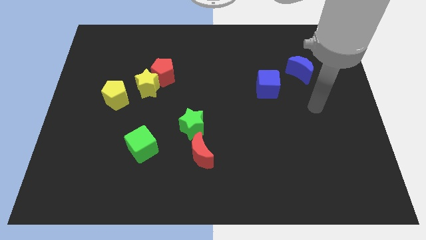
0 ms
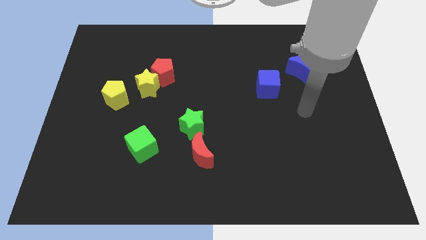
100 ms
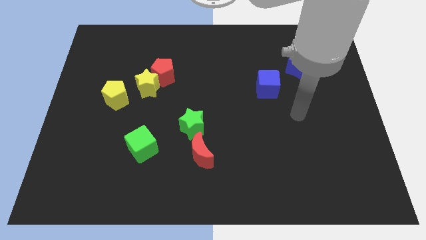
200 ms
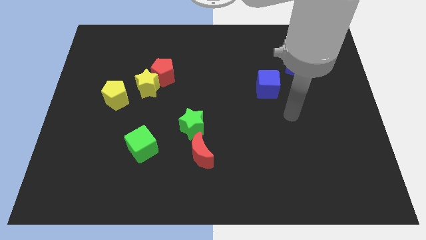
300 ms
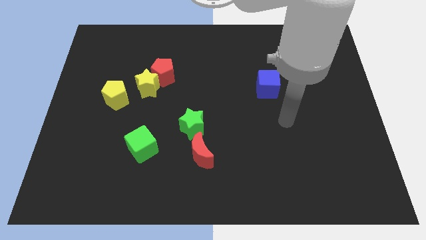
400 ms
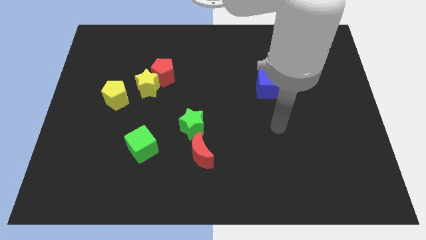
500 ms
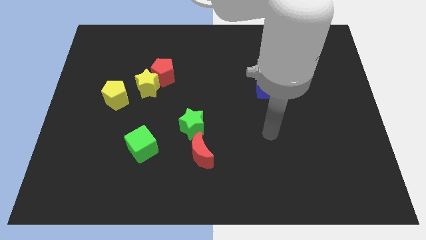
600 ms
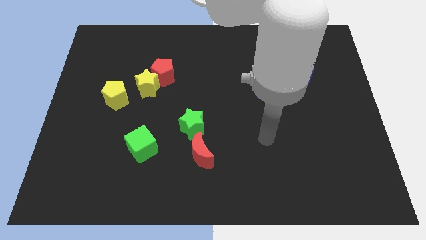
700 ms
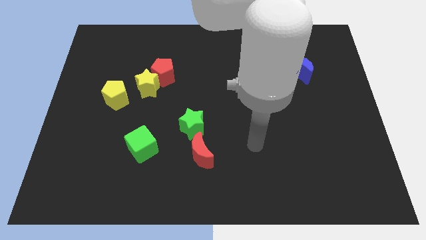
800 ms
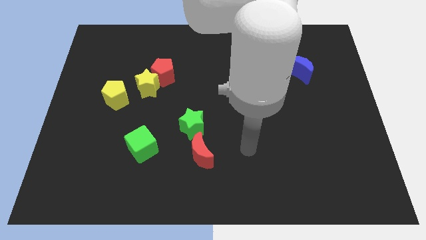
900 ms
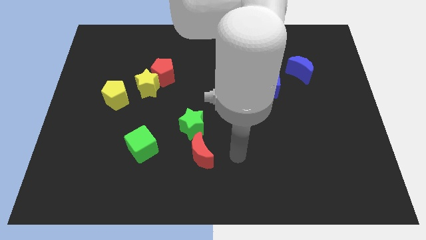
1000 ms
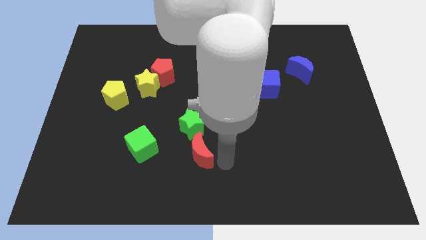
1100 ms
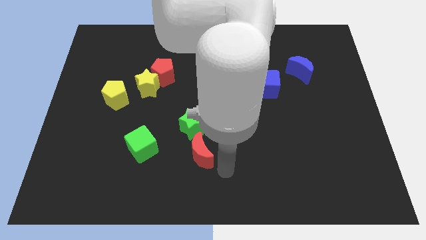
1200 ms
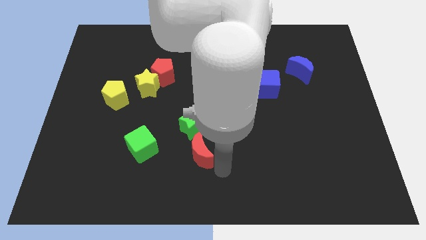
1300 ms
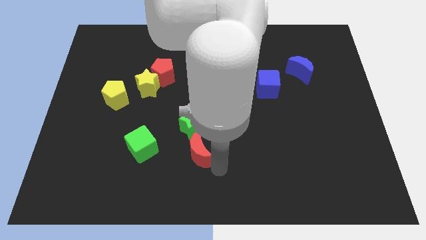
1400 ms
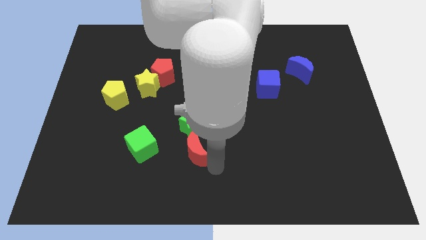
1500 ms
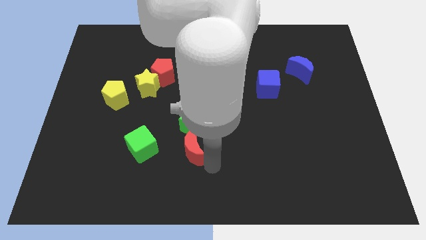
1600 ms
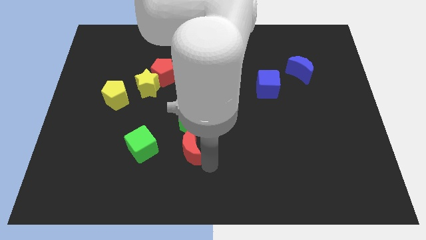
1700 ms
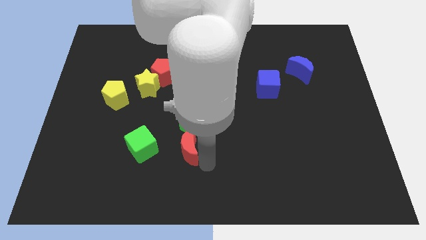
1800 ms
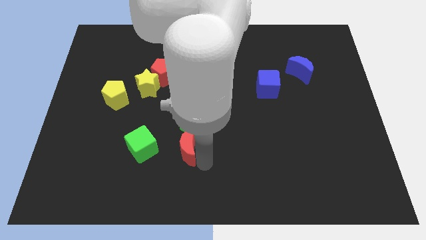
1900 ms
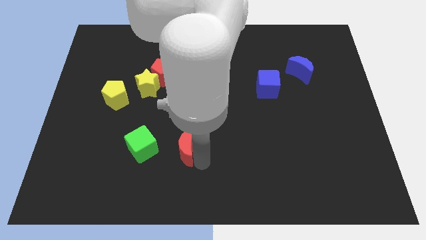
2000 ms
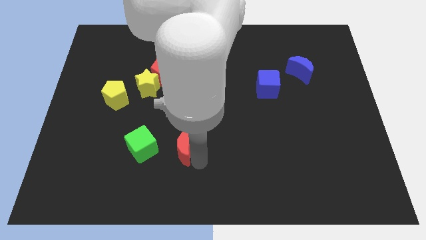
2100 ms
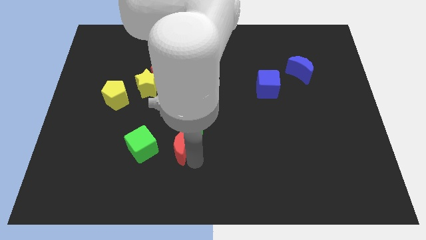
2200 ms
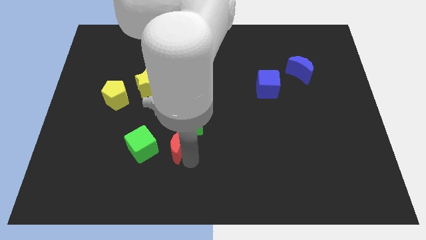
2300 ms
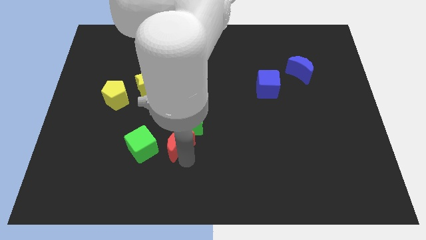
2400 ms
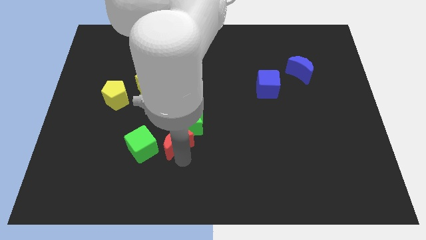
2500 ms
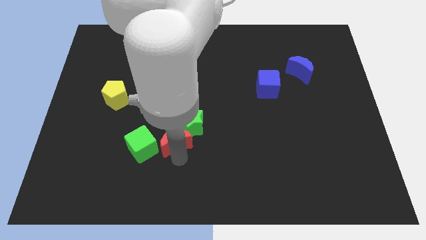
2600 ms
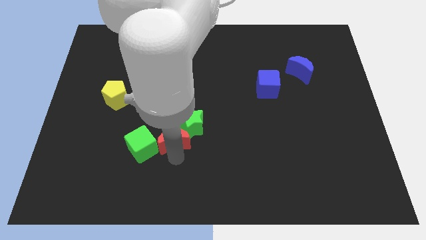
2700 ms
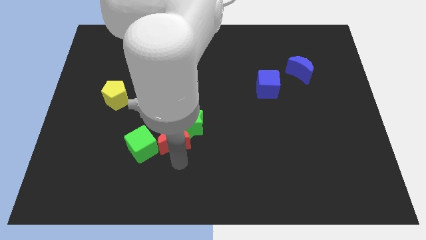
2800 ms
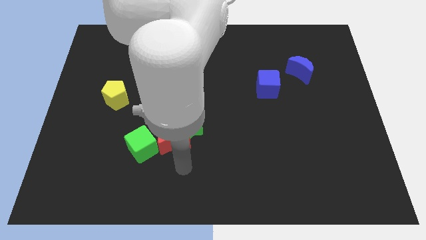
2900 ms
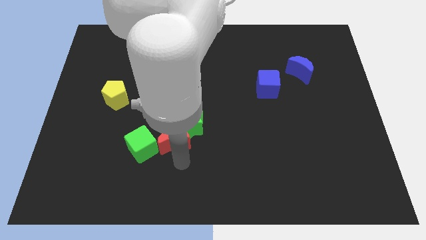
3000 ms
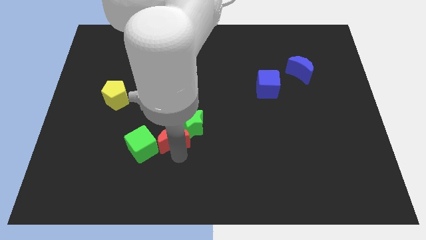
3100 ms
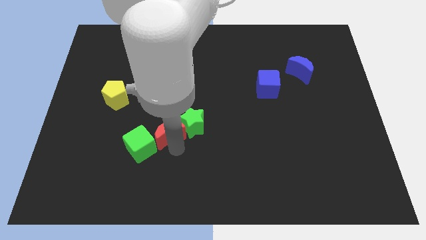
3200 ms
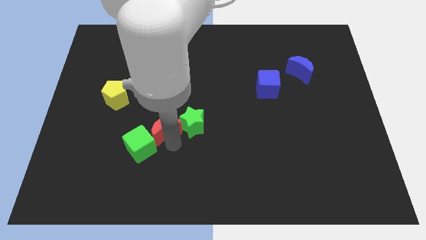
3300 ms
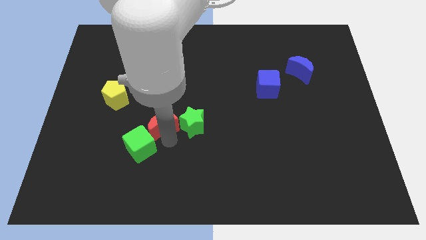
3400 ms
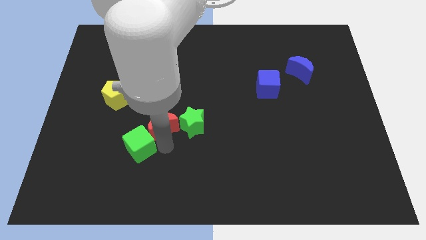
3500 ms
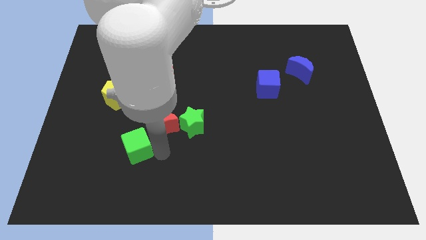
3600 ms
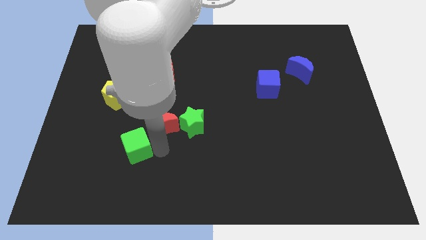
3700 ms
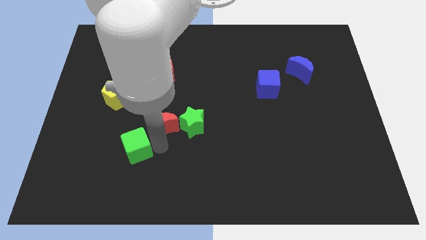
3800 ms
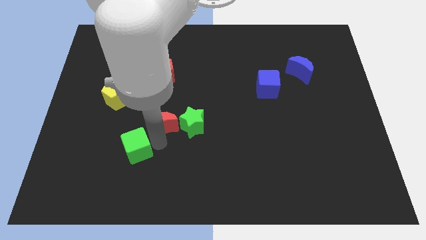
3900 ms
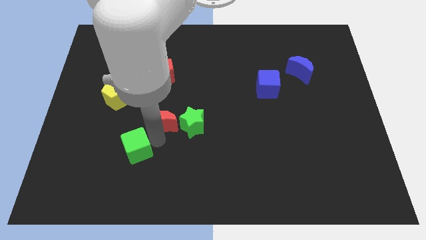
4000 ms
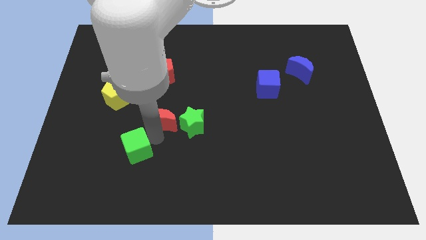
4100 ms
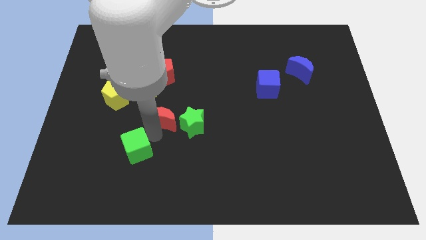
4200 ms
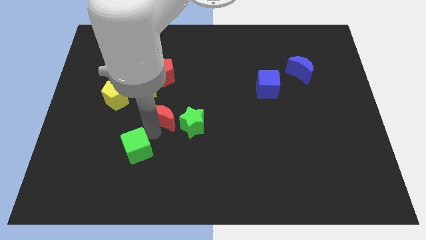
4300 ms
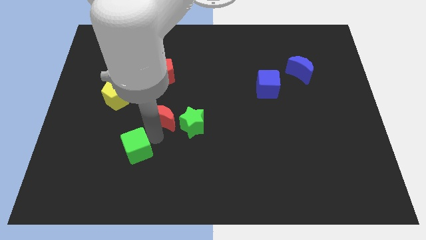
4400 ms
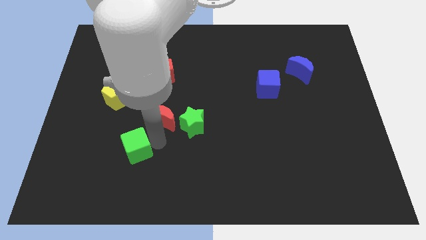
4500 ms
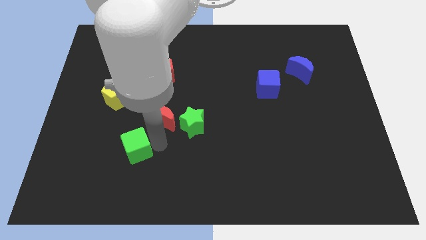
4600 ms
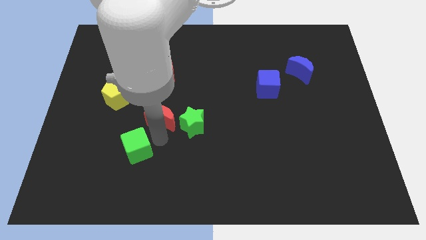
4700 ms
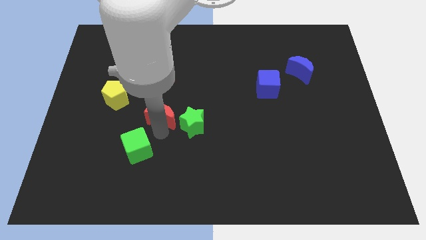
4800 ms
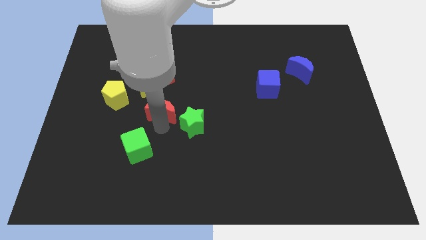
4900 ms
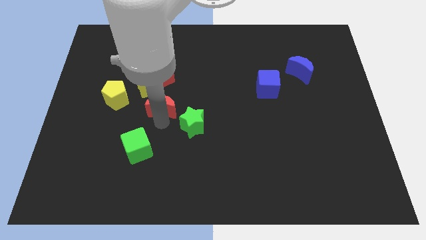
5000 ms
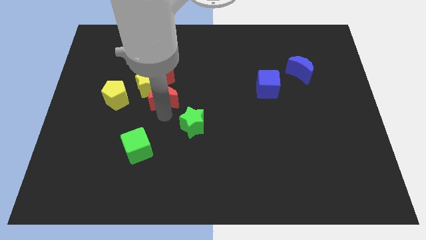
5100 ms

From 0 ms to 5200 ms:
put the red moon close to the yellow star

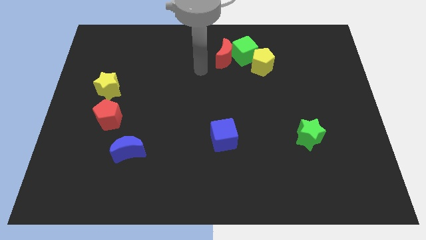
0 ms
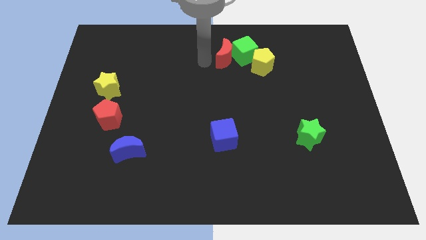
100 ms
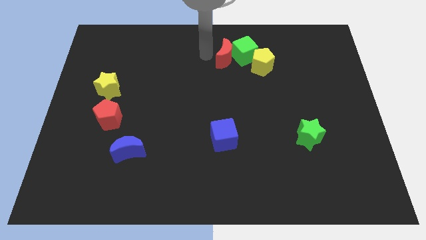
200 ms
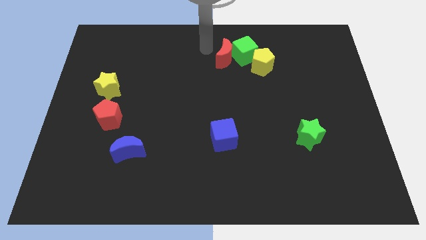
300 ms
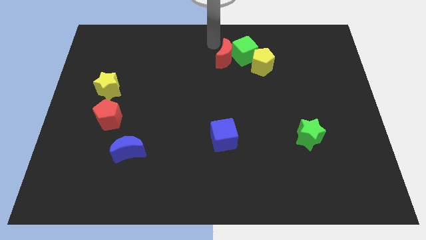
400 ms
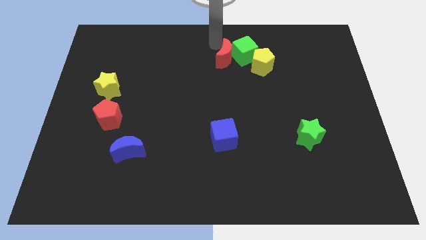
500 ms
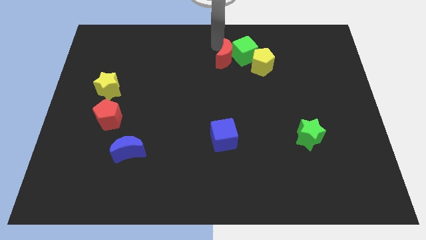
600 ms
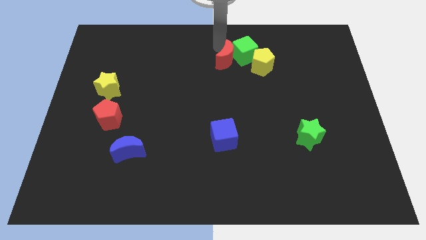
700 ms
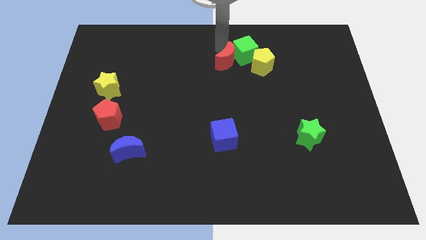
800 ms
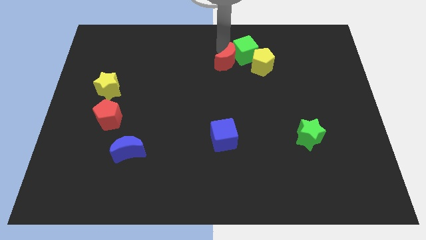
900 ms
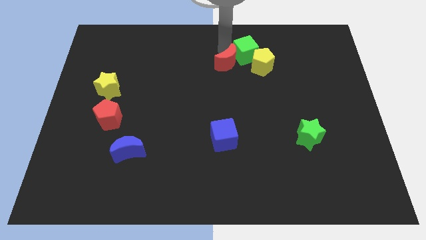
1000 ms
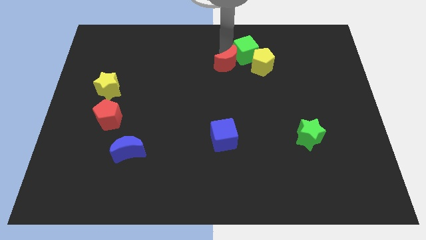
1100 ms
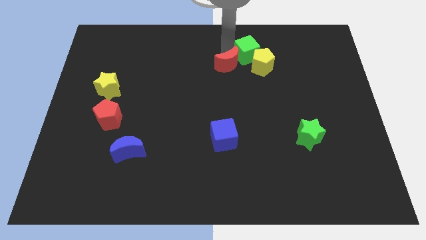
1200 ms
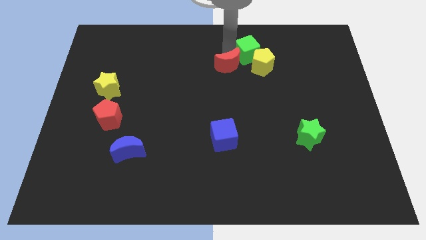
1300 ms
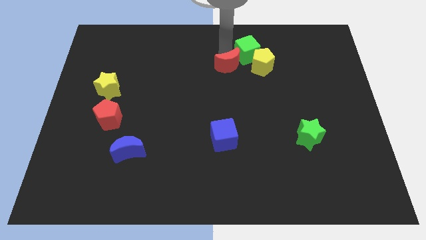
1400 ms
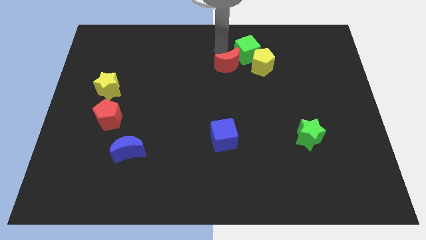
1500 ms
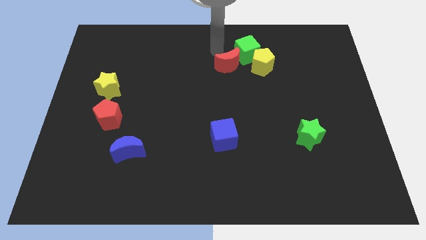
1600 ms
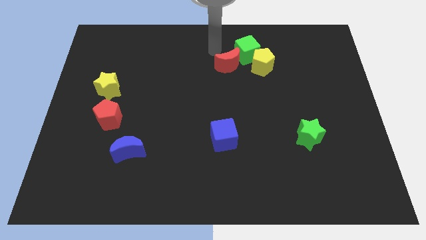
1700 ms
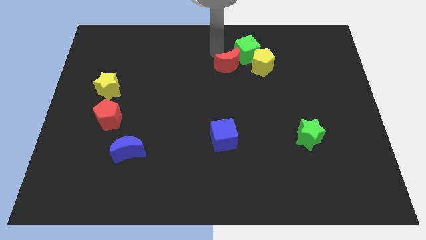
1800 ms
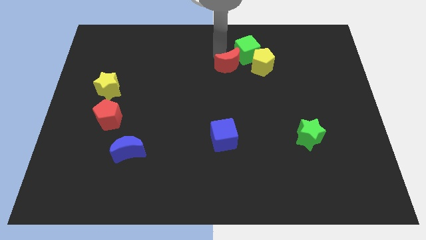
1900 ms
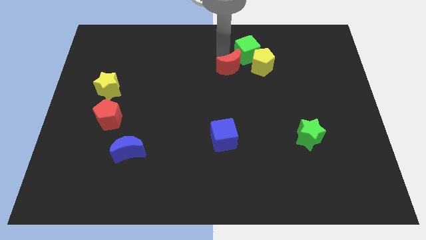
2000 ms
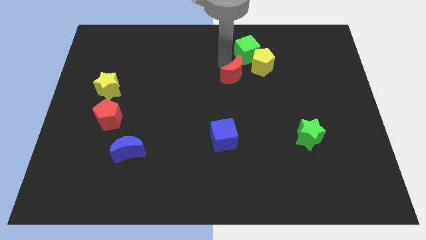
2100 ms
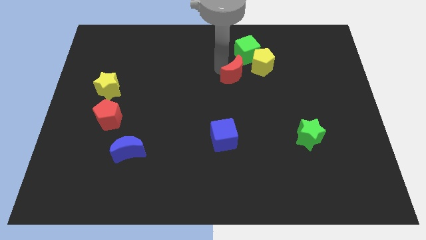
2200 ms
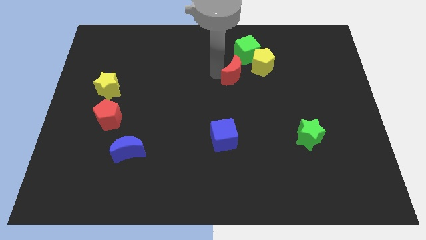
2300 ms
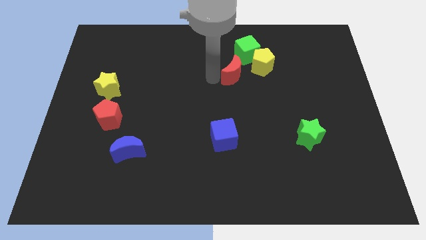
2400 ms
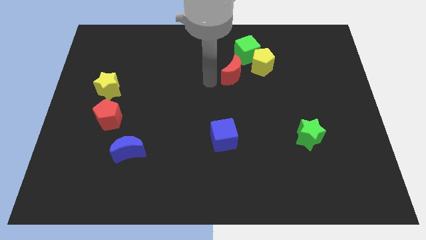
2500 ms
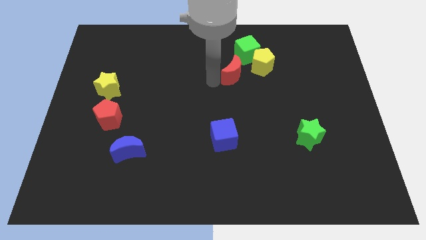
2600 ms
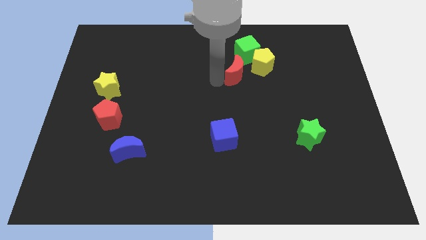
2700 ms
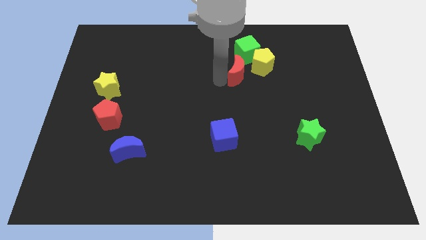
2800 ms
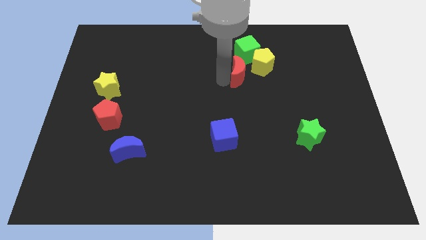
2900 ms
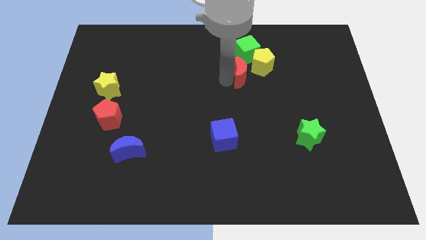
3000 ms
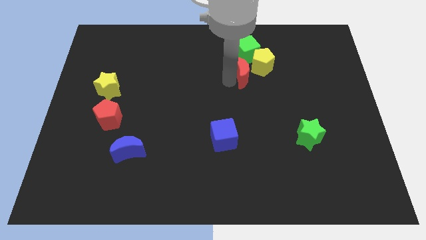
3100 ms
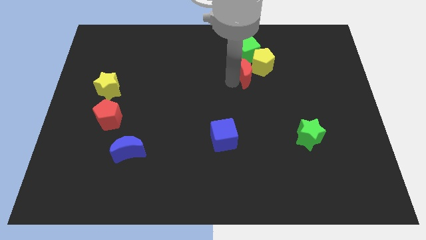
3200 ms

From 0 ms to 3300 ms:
push the red moon to the yellow pentagon
